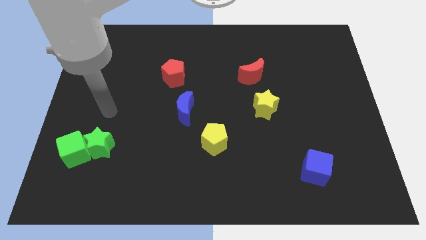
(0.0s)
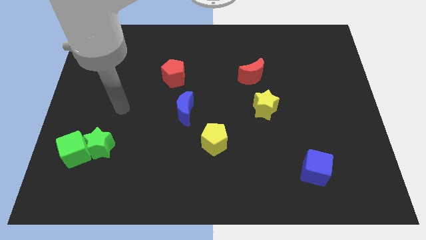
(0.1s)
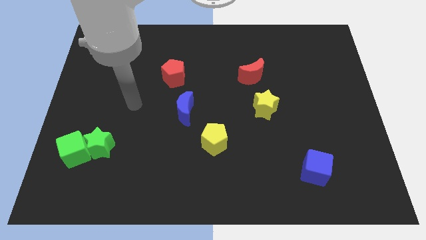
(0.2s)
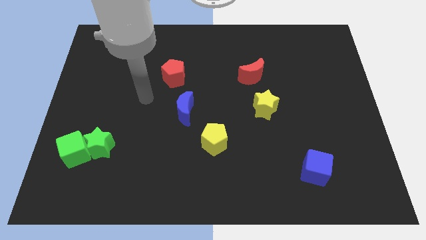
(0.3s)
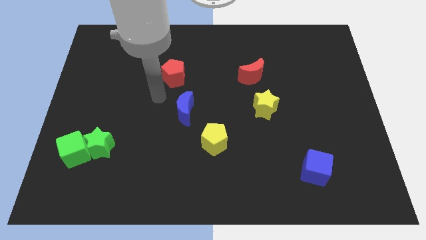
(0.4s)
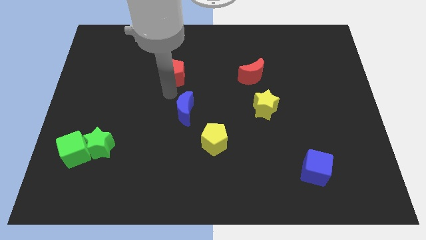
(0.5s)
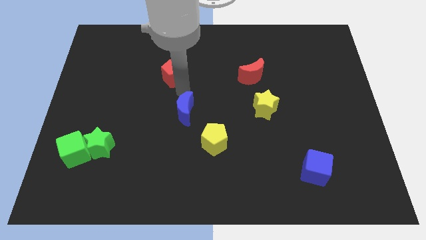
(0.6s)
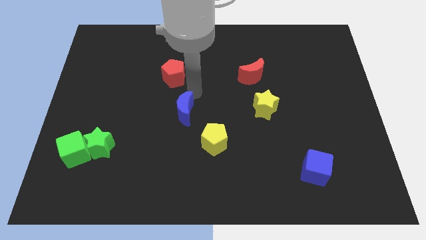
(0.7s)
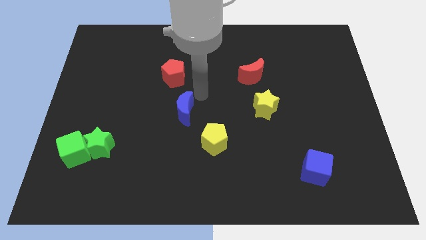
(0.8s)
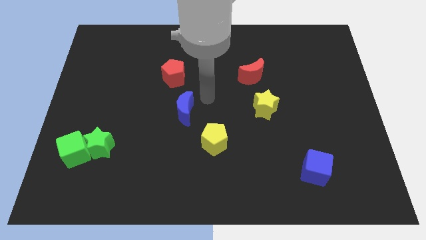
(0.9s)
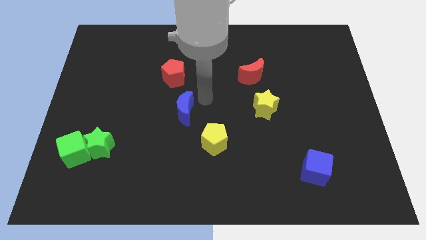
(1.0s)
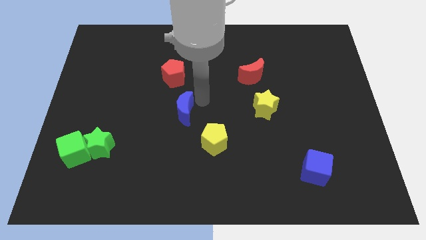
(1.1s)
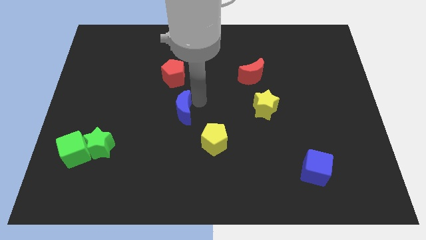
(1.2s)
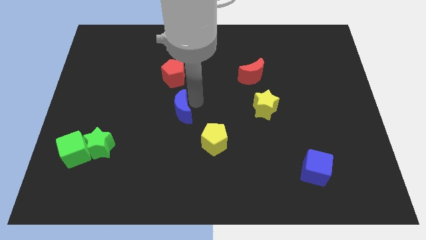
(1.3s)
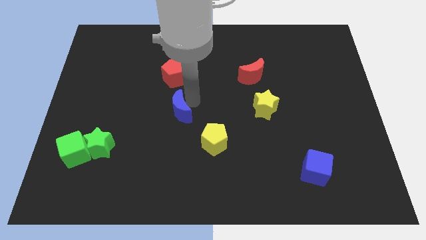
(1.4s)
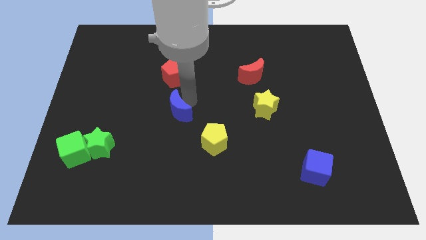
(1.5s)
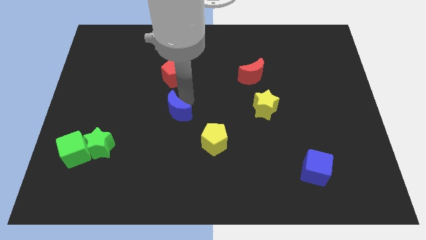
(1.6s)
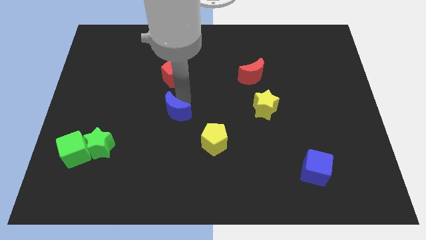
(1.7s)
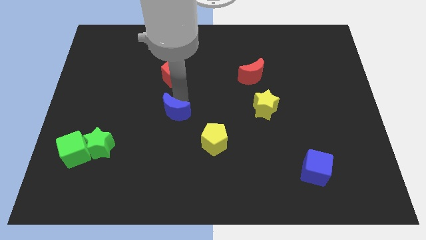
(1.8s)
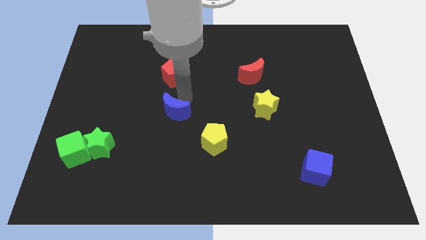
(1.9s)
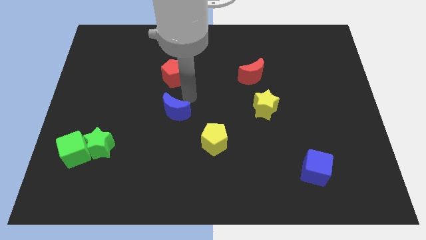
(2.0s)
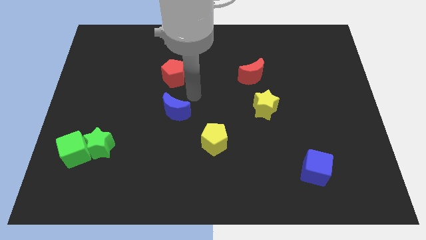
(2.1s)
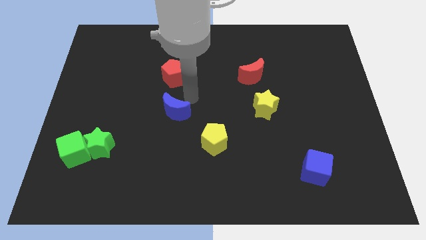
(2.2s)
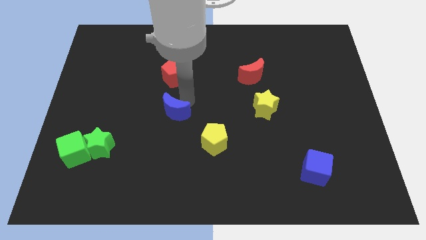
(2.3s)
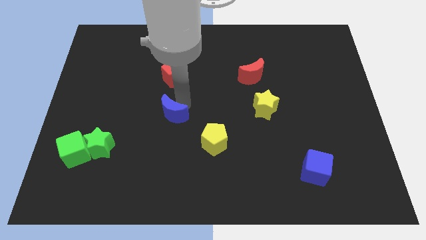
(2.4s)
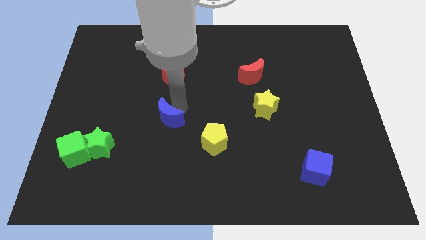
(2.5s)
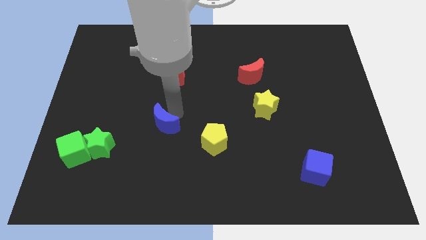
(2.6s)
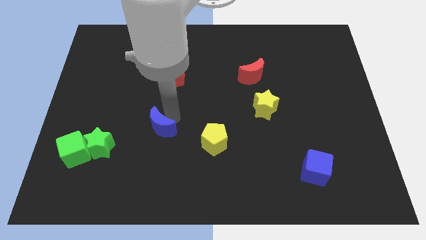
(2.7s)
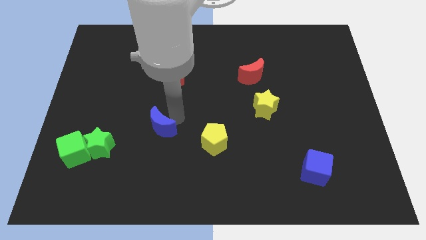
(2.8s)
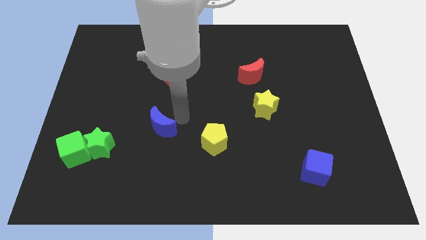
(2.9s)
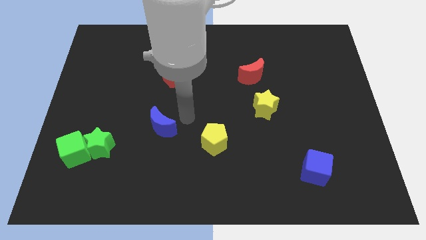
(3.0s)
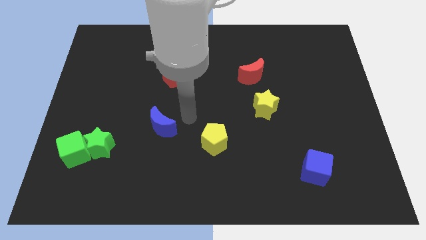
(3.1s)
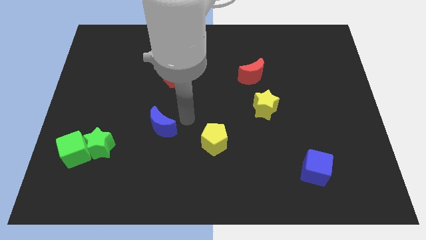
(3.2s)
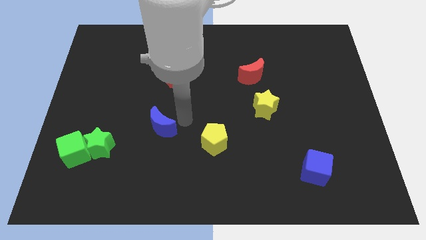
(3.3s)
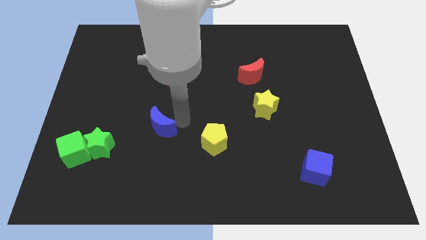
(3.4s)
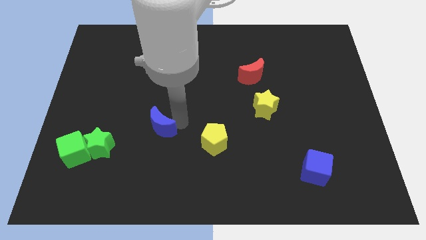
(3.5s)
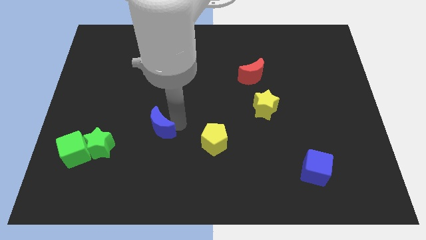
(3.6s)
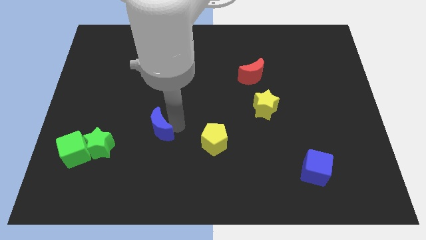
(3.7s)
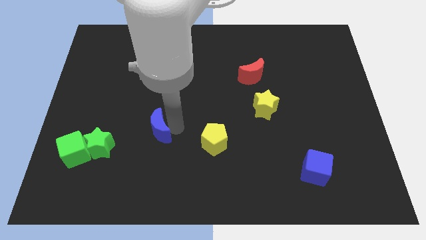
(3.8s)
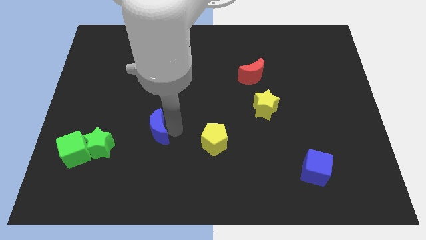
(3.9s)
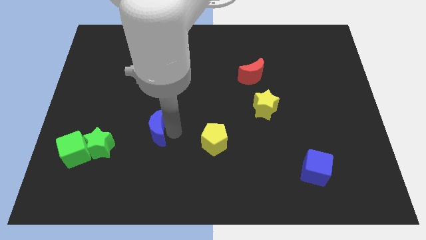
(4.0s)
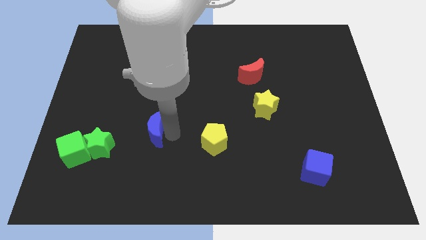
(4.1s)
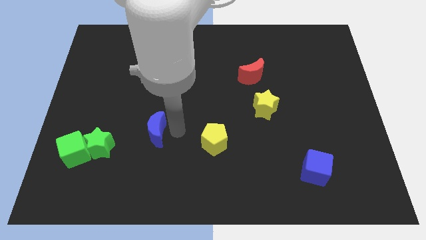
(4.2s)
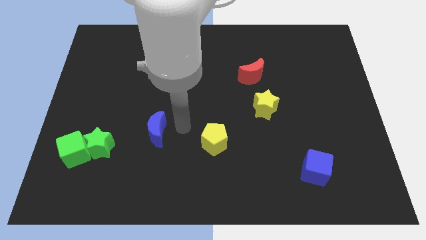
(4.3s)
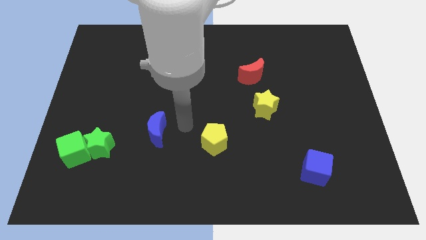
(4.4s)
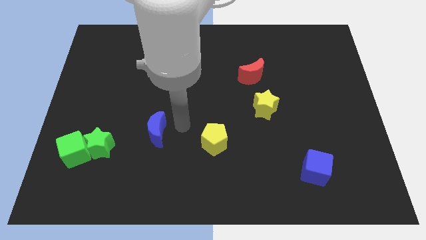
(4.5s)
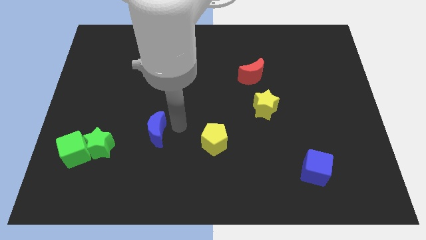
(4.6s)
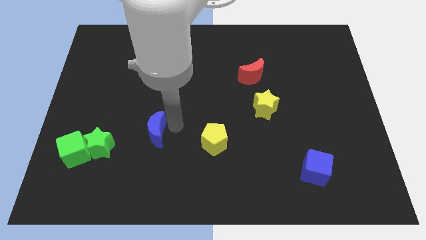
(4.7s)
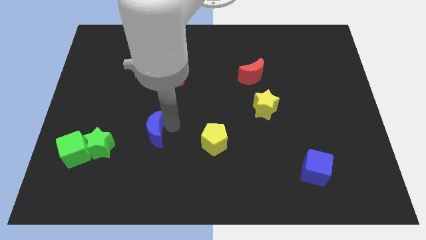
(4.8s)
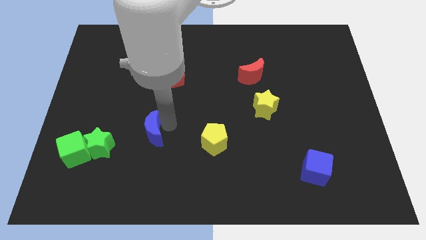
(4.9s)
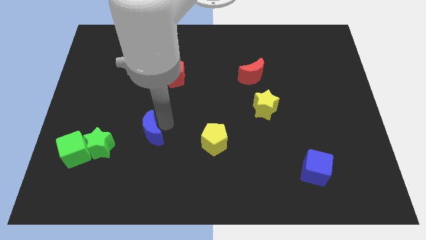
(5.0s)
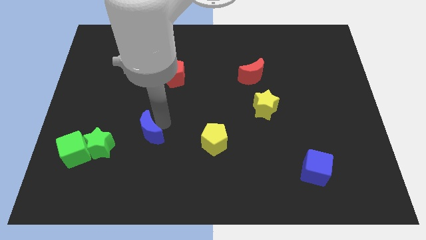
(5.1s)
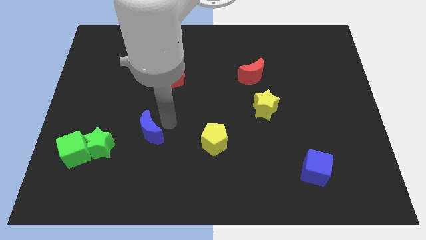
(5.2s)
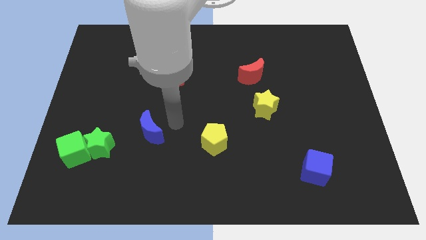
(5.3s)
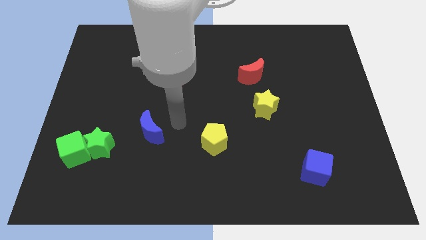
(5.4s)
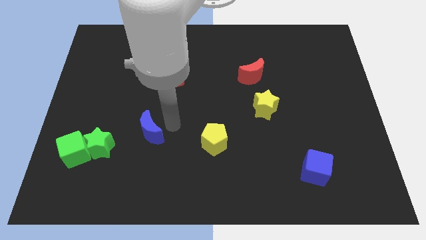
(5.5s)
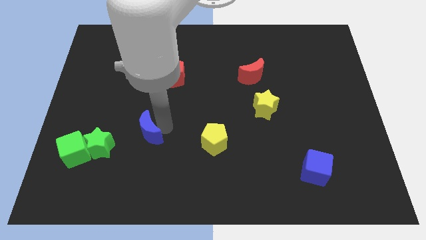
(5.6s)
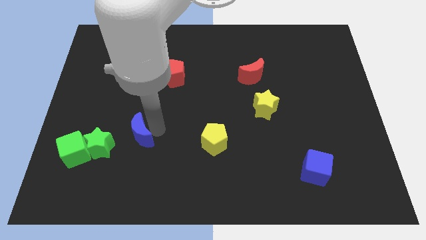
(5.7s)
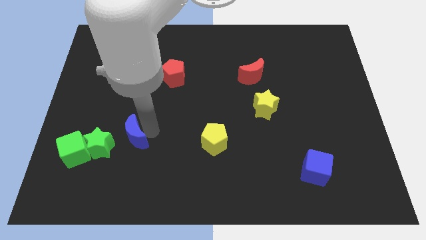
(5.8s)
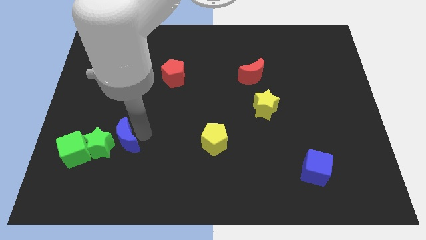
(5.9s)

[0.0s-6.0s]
slide the blue moon towards the green star

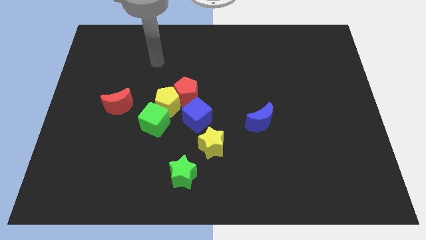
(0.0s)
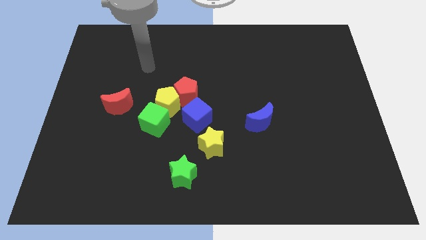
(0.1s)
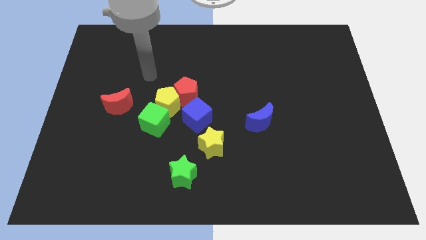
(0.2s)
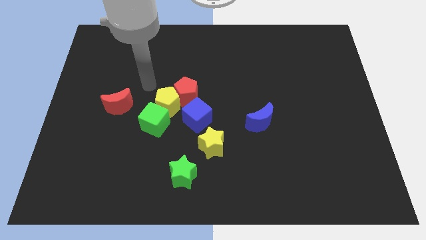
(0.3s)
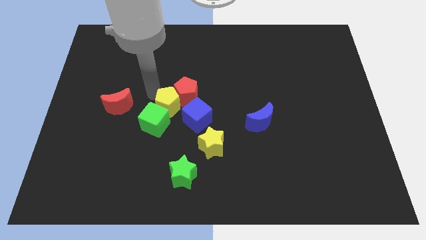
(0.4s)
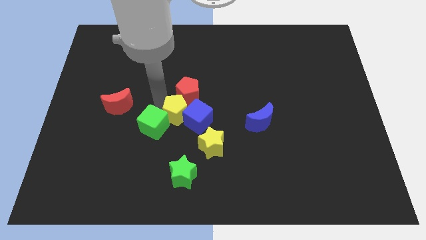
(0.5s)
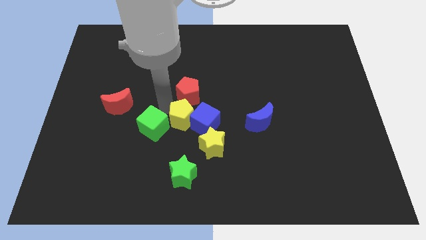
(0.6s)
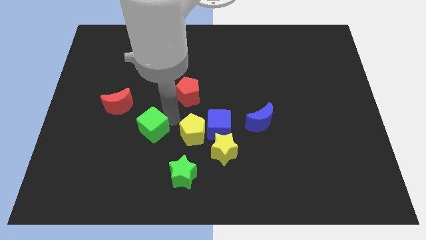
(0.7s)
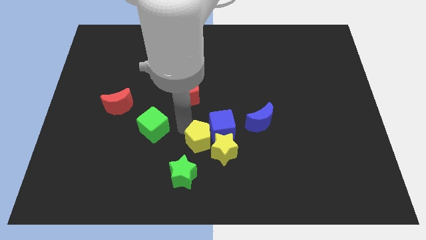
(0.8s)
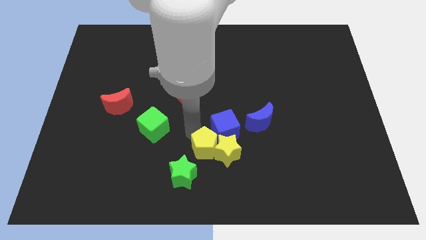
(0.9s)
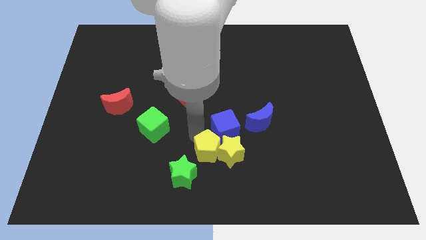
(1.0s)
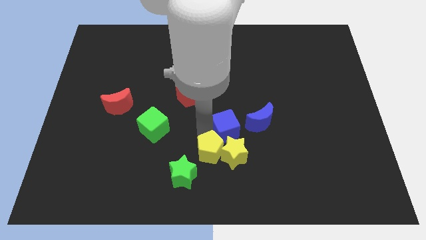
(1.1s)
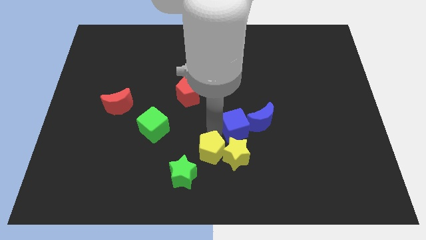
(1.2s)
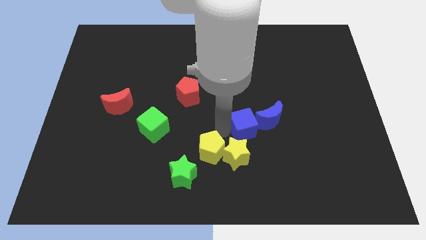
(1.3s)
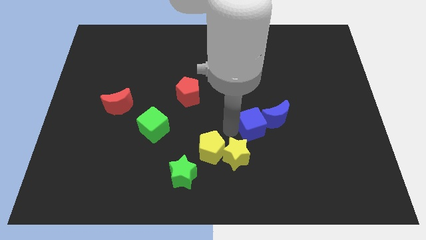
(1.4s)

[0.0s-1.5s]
slide the blue cube to the blue moon
